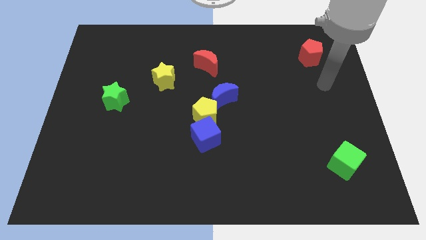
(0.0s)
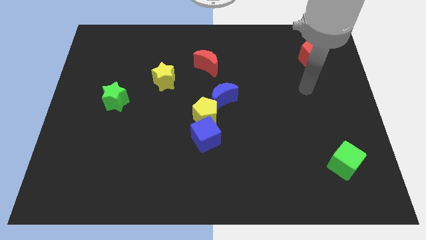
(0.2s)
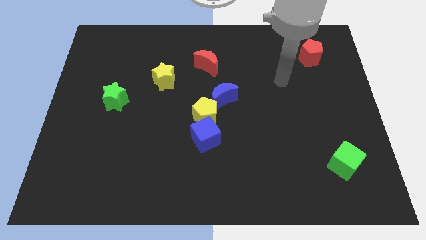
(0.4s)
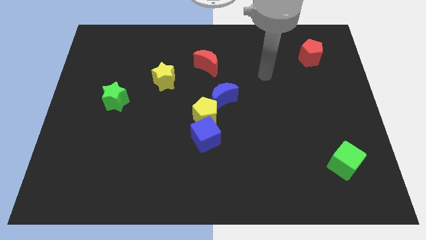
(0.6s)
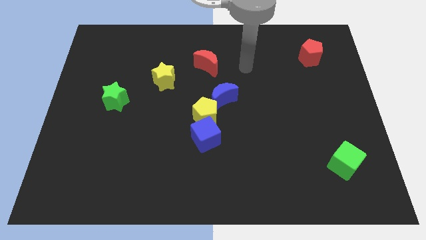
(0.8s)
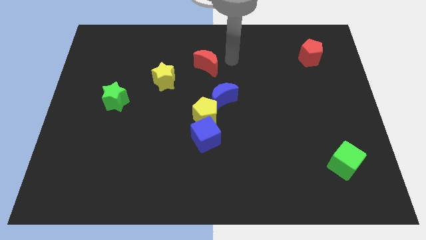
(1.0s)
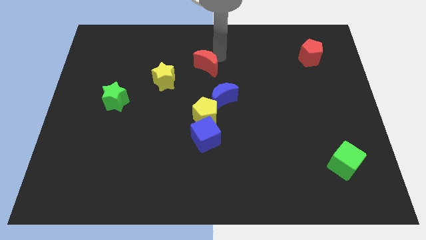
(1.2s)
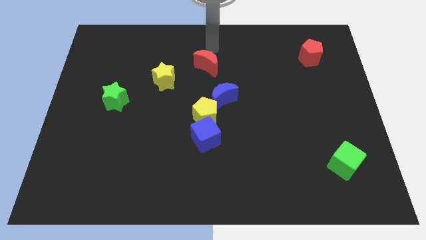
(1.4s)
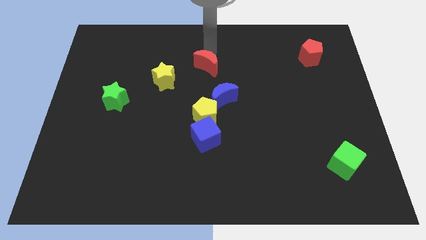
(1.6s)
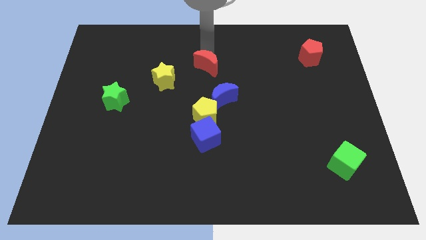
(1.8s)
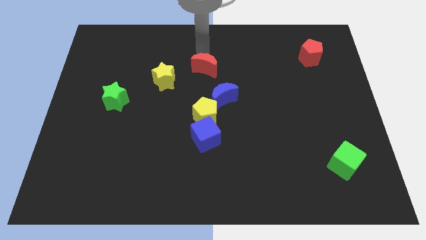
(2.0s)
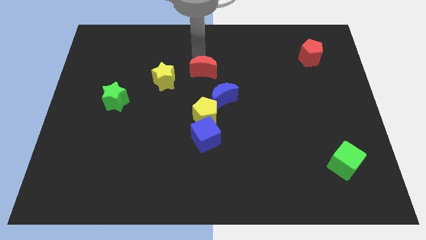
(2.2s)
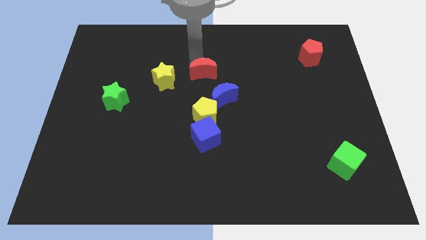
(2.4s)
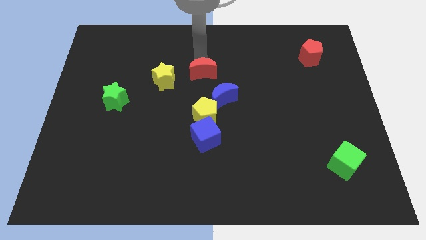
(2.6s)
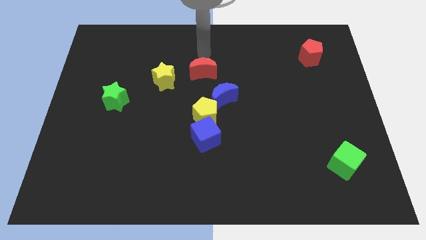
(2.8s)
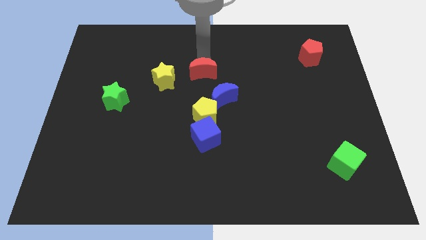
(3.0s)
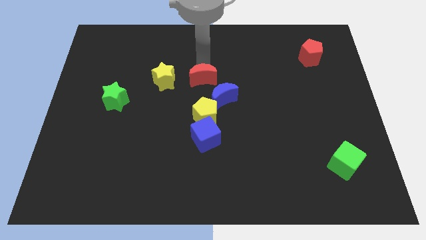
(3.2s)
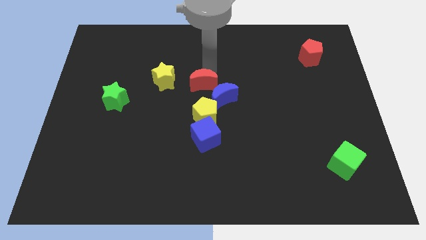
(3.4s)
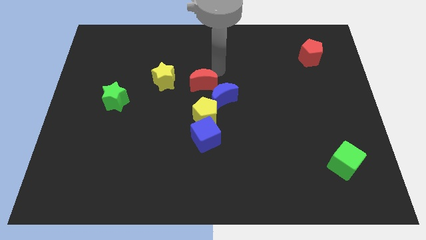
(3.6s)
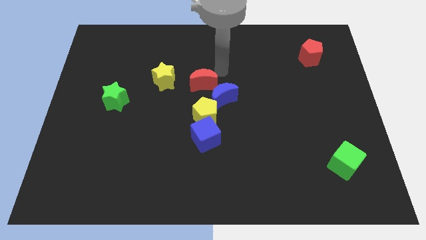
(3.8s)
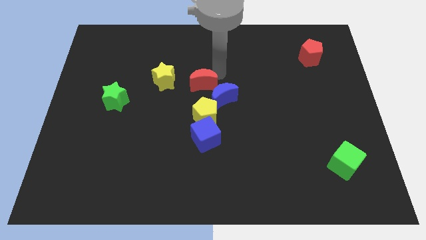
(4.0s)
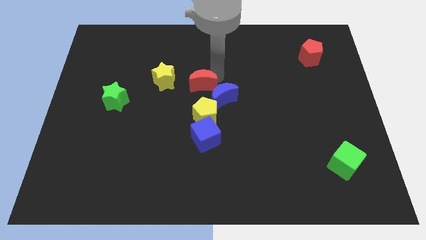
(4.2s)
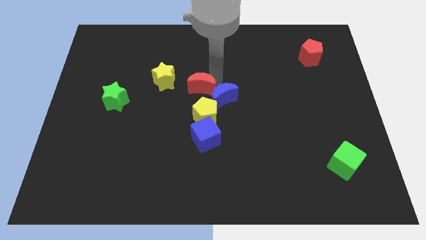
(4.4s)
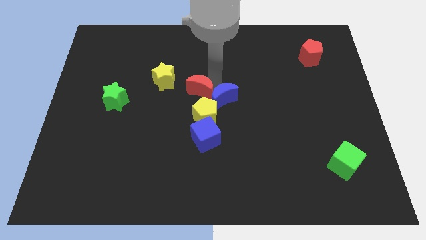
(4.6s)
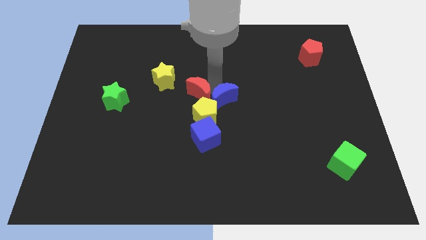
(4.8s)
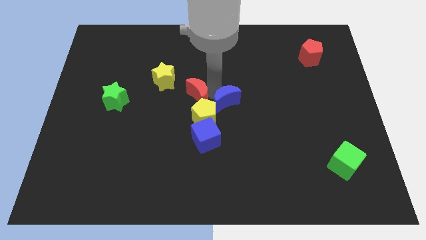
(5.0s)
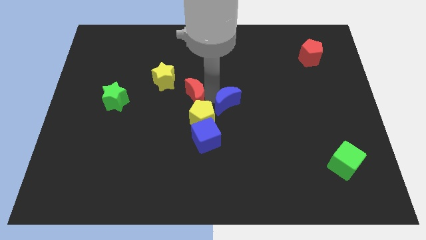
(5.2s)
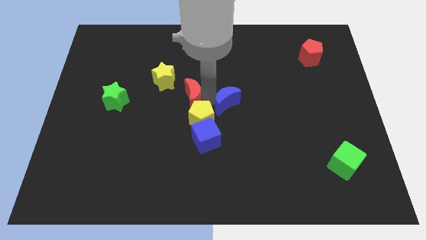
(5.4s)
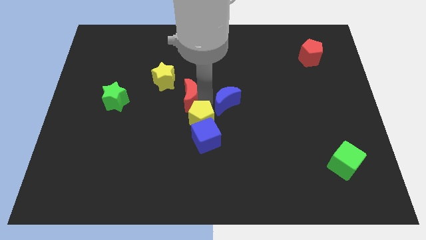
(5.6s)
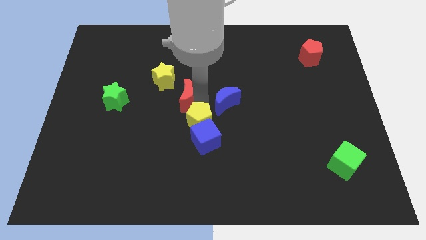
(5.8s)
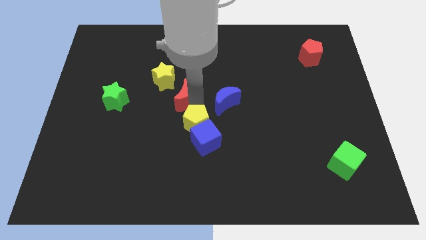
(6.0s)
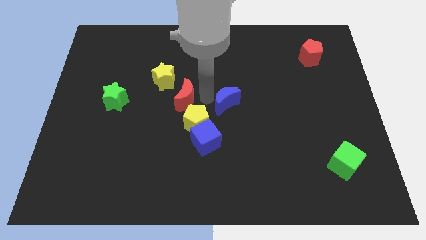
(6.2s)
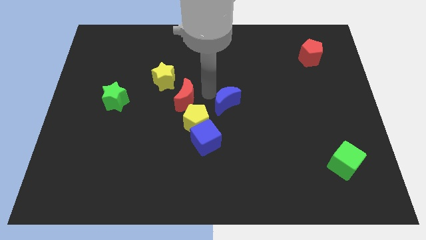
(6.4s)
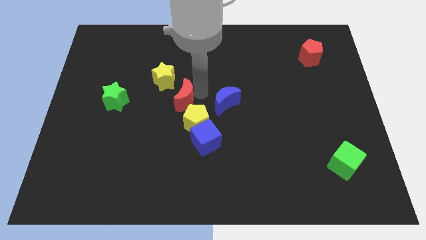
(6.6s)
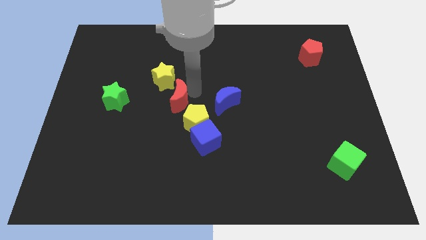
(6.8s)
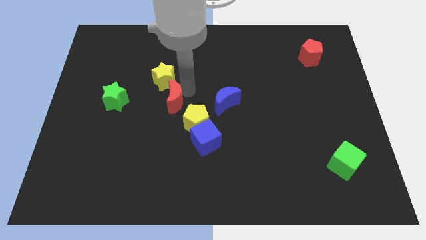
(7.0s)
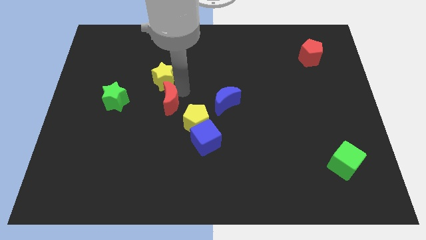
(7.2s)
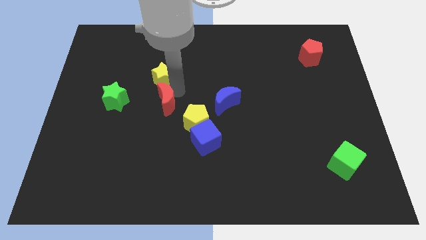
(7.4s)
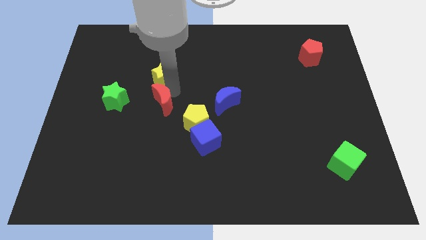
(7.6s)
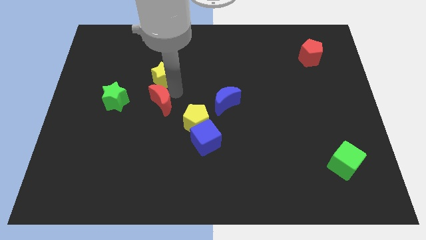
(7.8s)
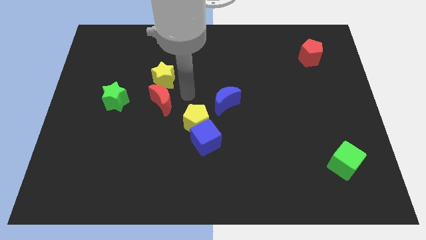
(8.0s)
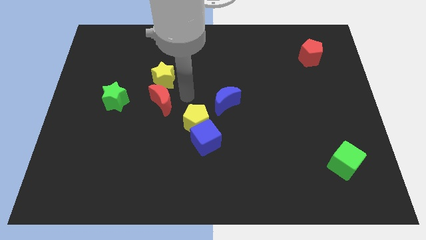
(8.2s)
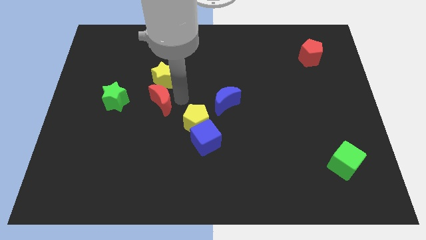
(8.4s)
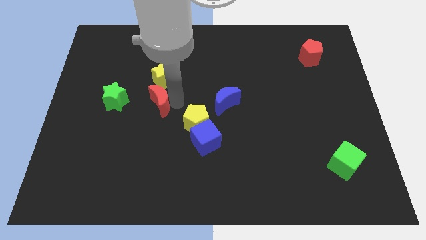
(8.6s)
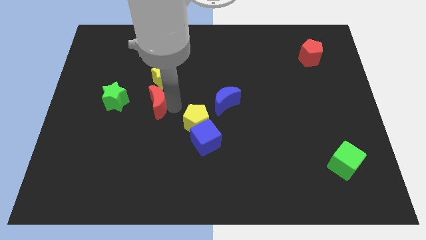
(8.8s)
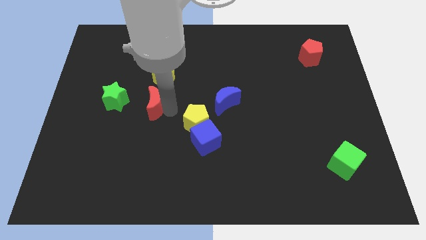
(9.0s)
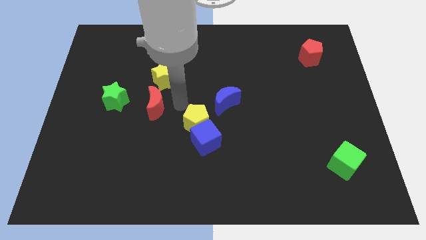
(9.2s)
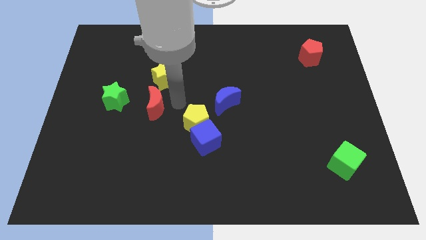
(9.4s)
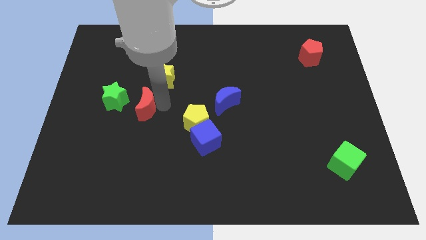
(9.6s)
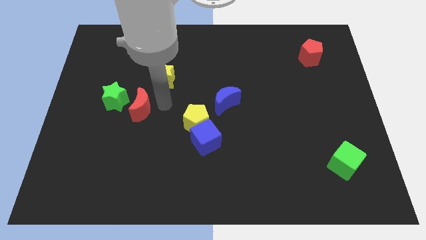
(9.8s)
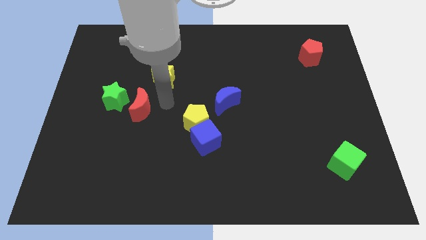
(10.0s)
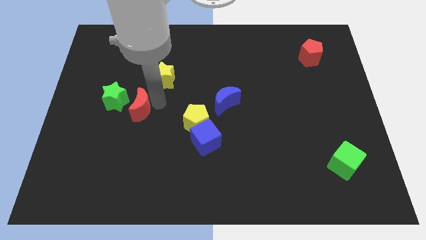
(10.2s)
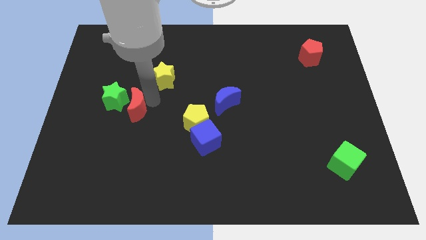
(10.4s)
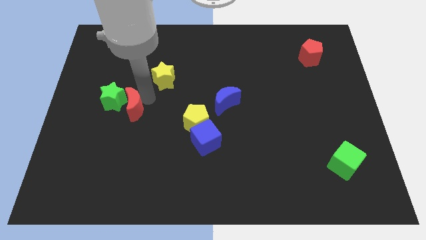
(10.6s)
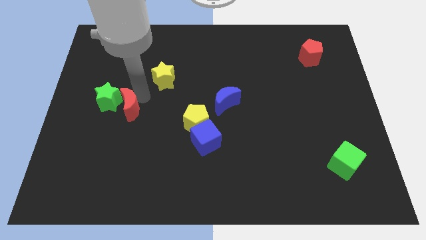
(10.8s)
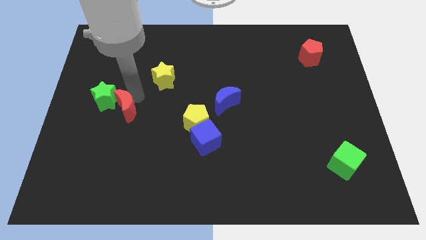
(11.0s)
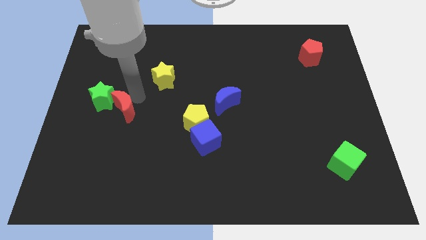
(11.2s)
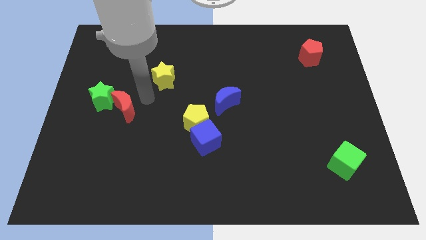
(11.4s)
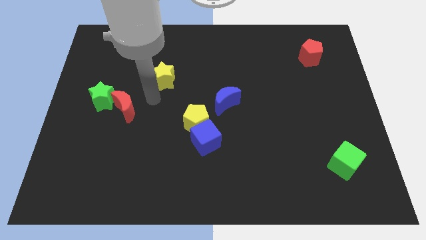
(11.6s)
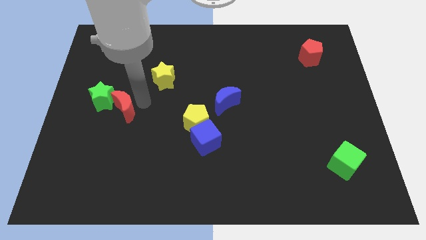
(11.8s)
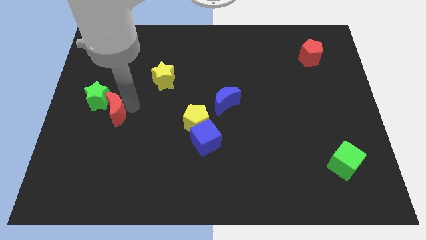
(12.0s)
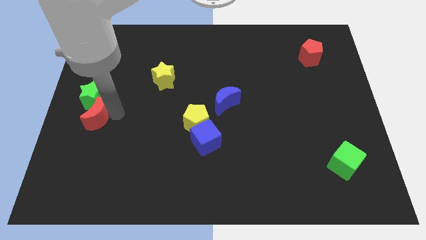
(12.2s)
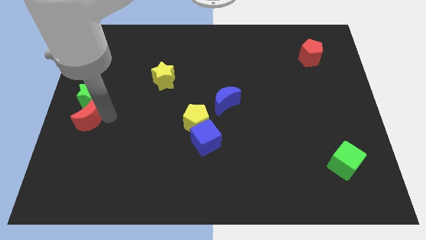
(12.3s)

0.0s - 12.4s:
push the red moon to the bottom left of the green star

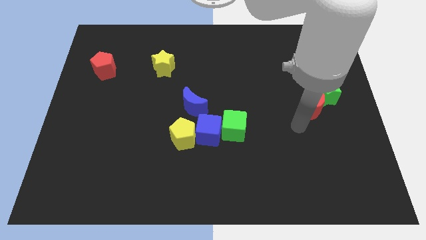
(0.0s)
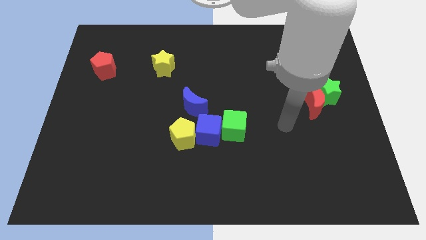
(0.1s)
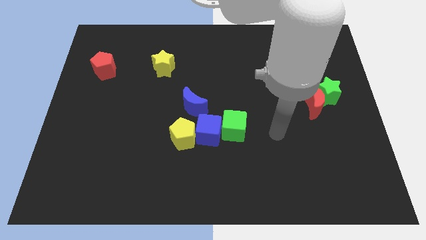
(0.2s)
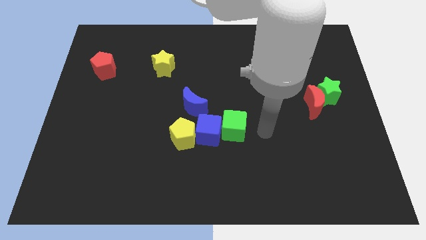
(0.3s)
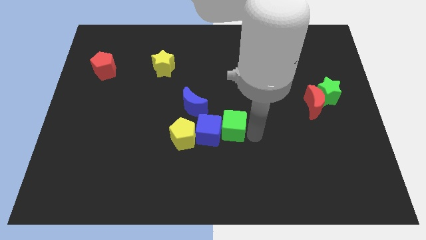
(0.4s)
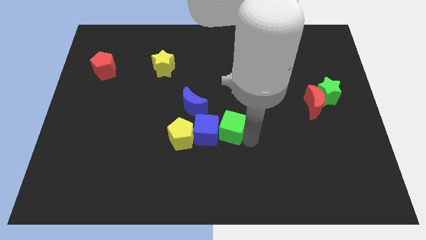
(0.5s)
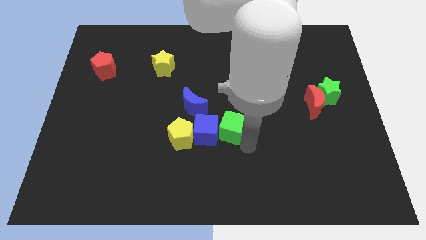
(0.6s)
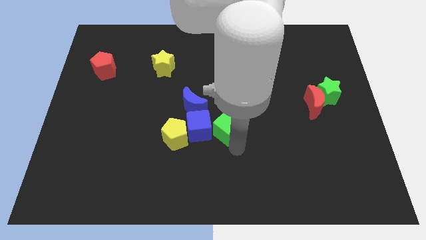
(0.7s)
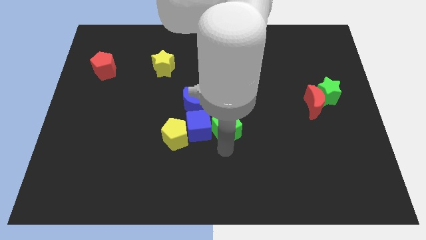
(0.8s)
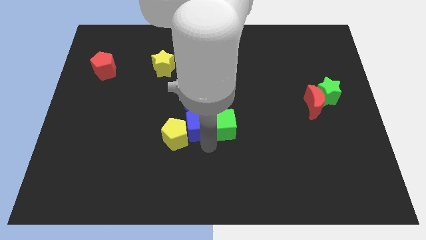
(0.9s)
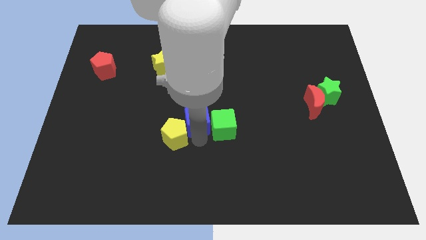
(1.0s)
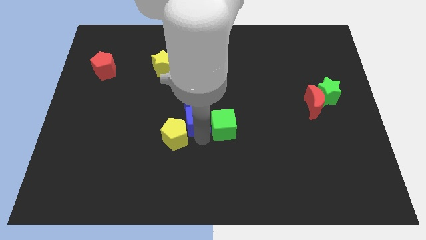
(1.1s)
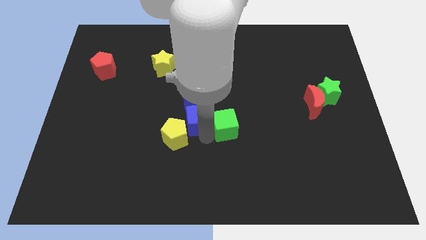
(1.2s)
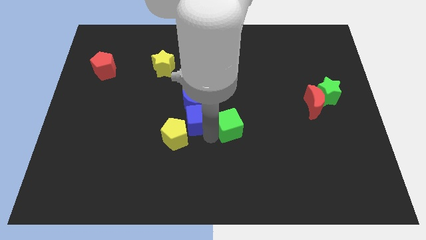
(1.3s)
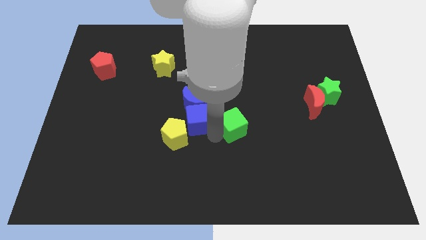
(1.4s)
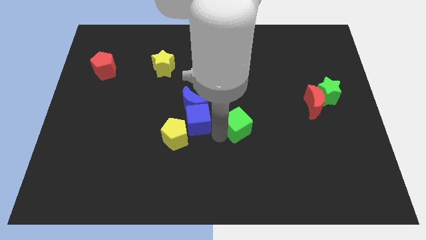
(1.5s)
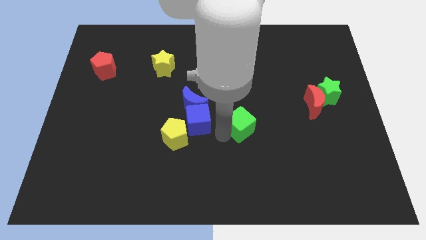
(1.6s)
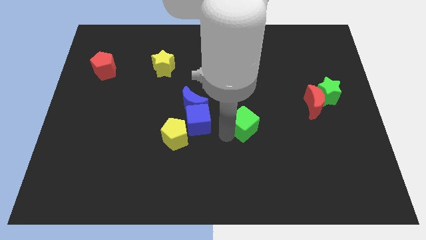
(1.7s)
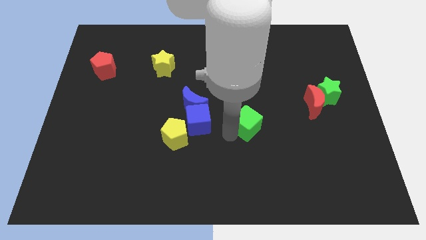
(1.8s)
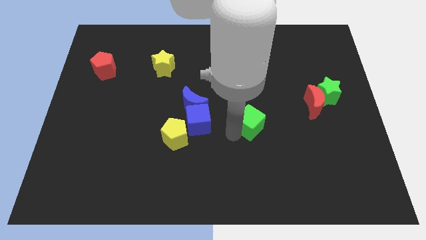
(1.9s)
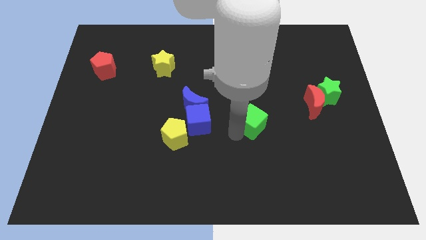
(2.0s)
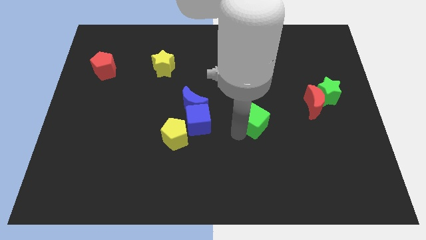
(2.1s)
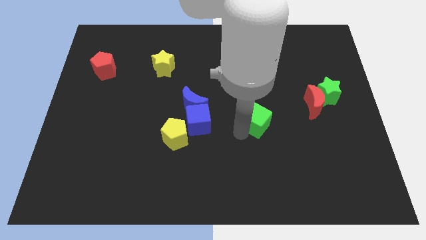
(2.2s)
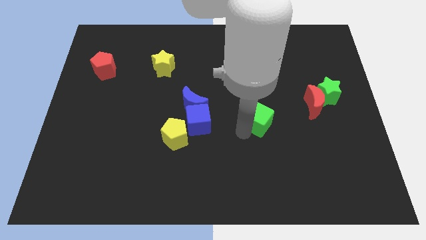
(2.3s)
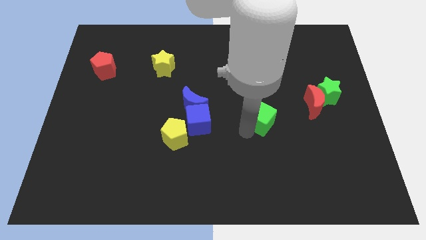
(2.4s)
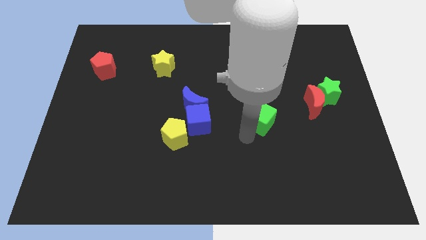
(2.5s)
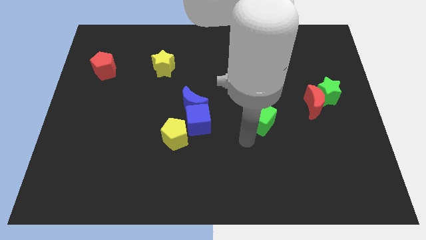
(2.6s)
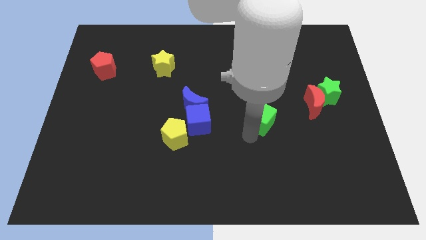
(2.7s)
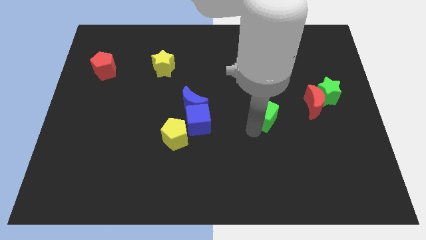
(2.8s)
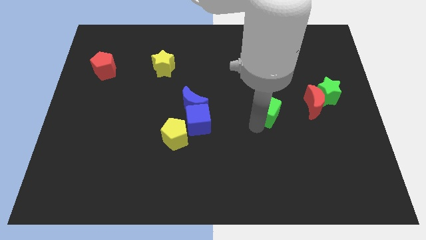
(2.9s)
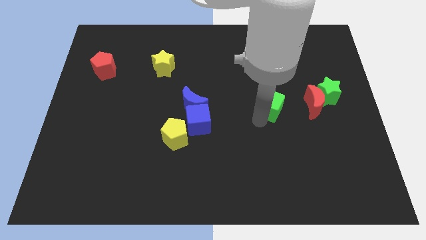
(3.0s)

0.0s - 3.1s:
slide the green cube to the left side of the green star
